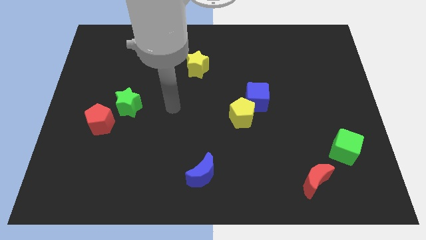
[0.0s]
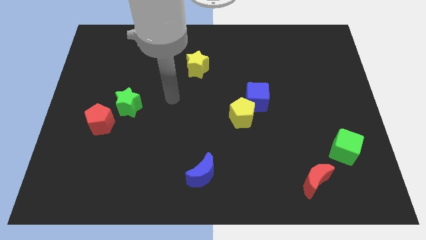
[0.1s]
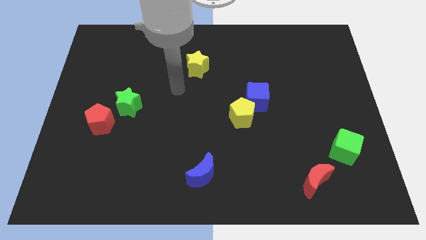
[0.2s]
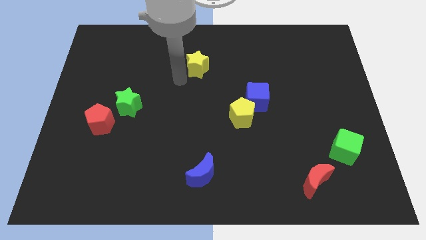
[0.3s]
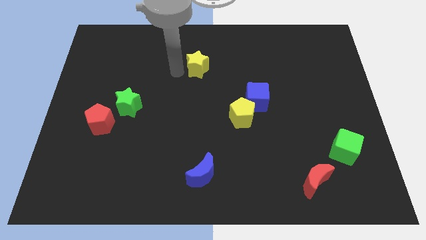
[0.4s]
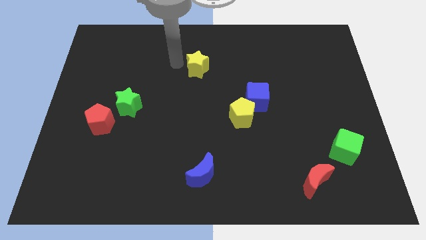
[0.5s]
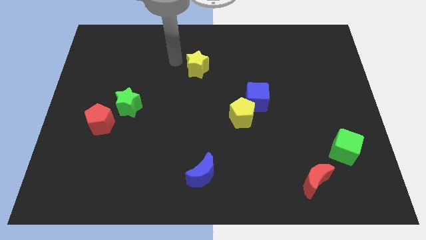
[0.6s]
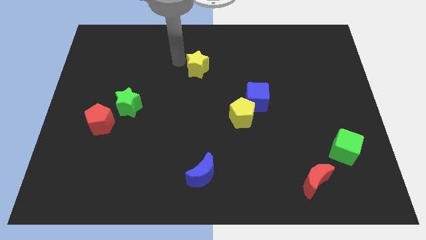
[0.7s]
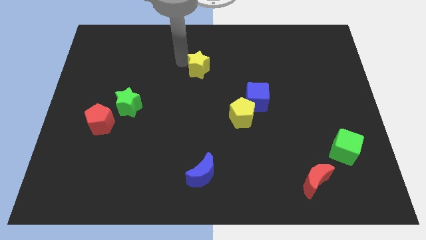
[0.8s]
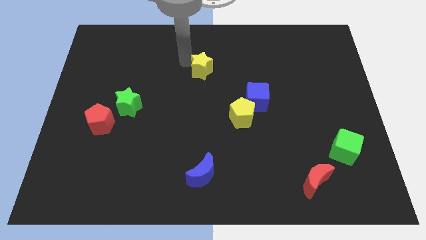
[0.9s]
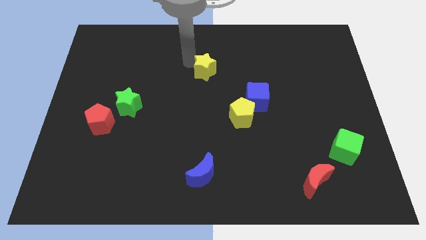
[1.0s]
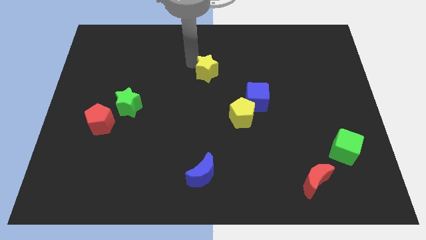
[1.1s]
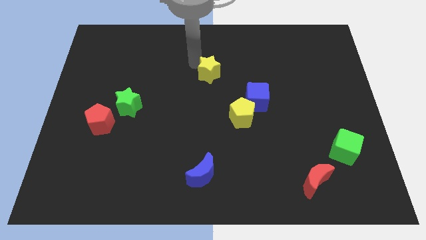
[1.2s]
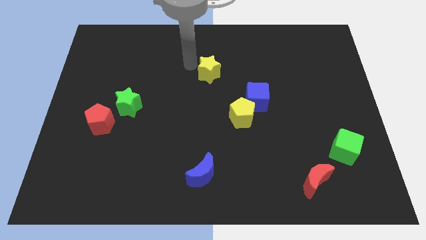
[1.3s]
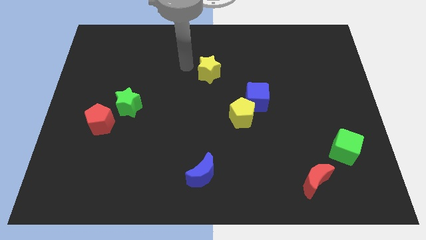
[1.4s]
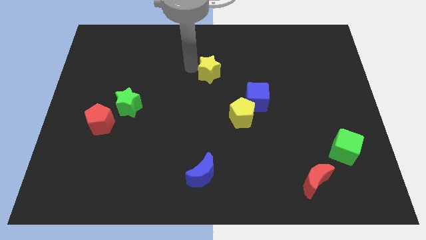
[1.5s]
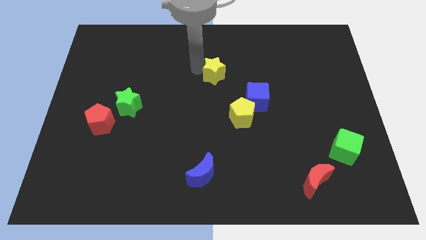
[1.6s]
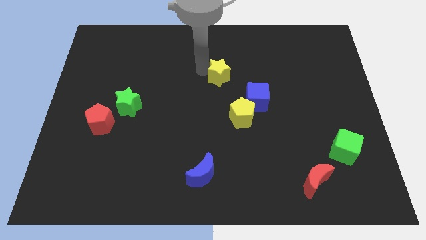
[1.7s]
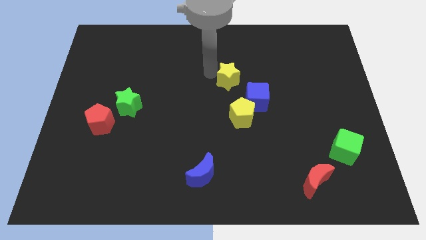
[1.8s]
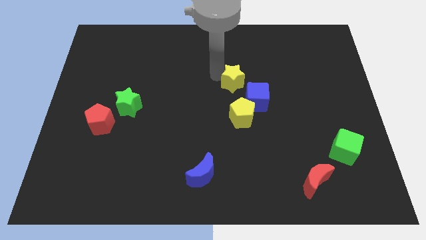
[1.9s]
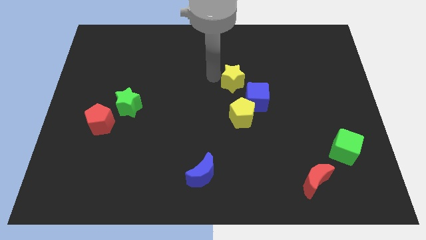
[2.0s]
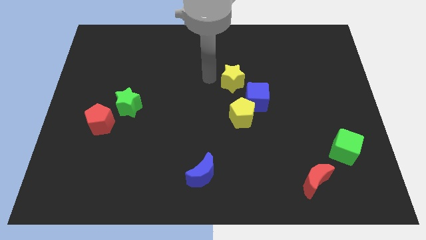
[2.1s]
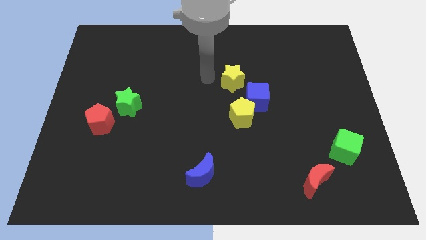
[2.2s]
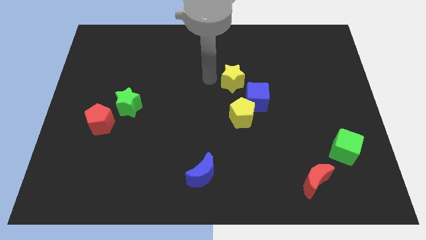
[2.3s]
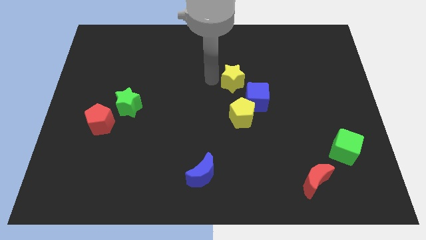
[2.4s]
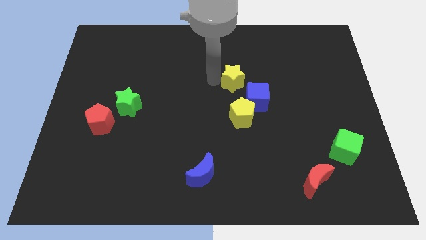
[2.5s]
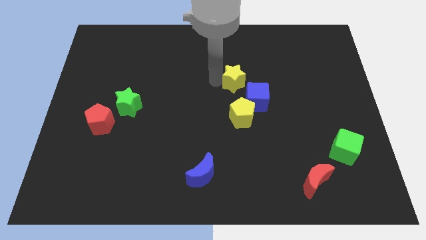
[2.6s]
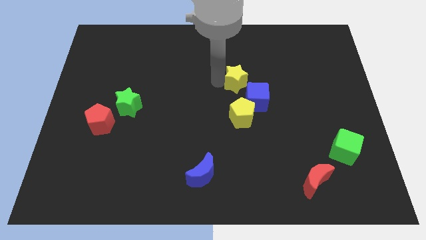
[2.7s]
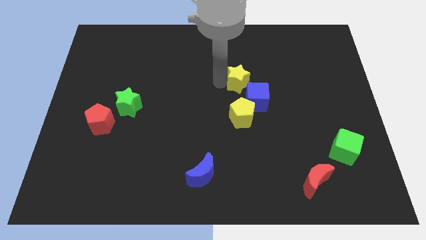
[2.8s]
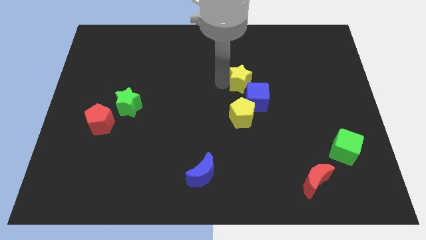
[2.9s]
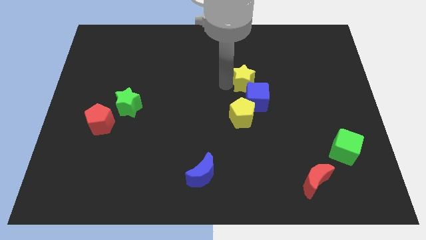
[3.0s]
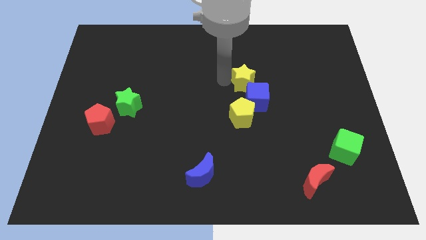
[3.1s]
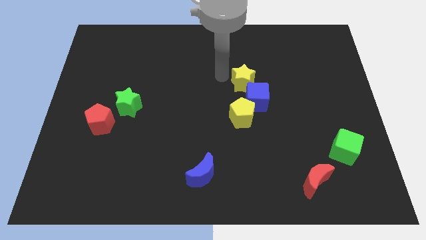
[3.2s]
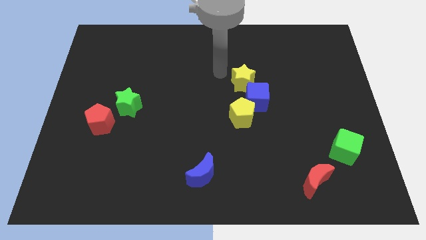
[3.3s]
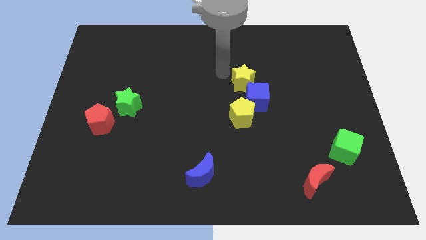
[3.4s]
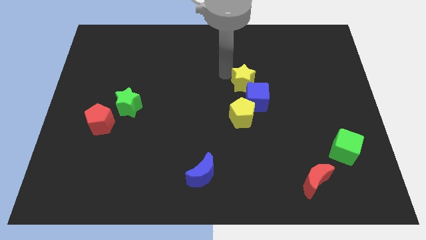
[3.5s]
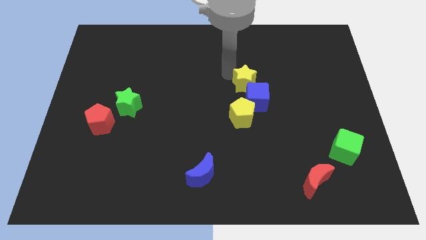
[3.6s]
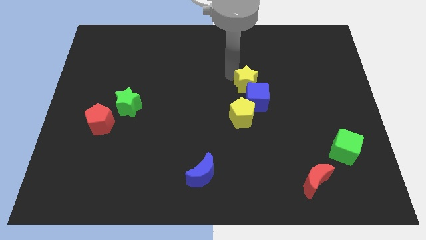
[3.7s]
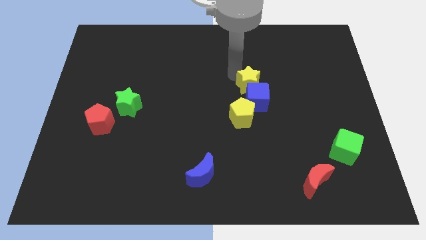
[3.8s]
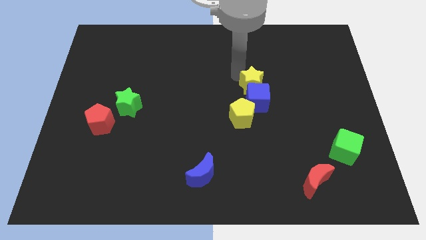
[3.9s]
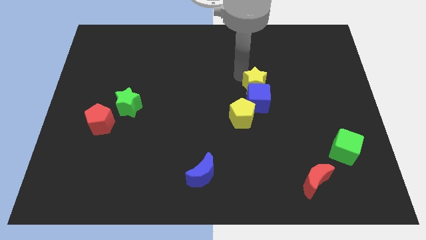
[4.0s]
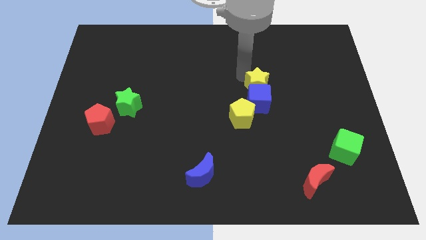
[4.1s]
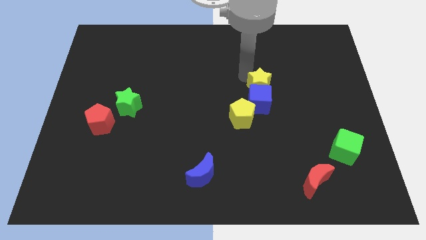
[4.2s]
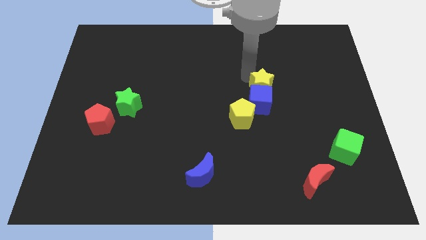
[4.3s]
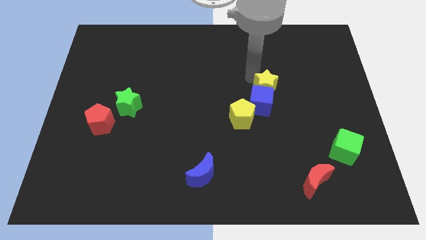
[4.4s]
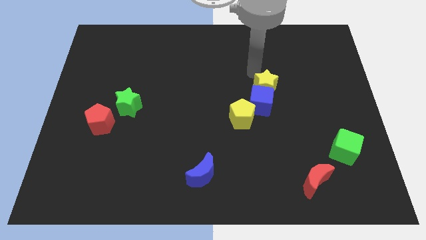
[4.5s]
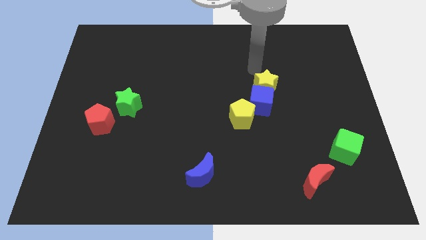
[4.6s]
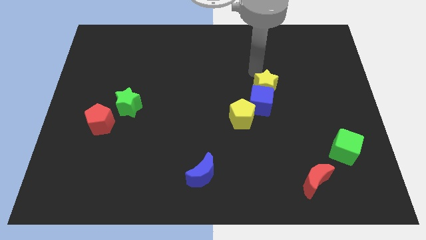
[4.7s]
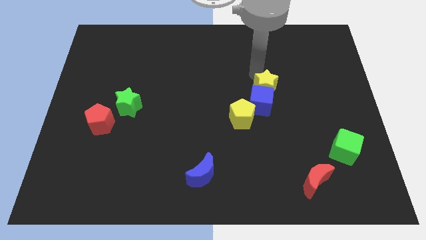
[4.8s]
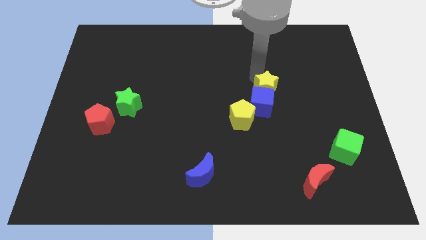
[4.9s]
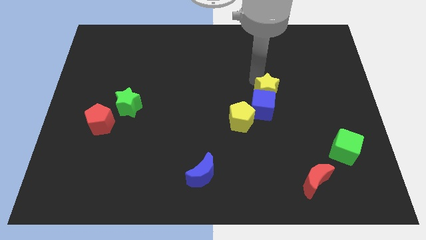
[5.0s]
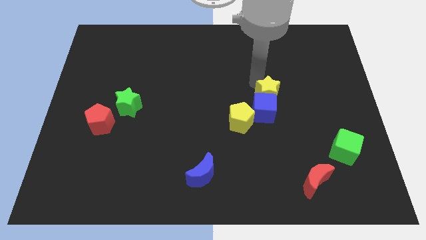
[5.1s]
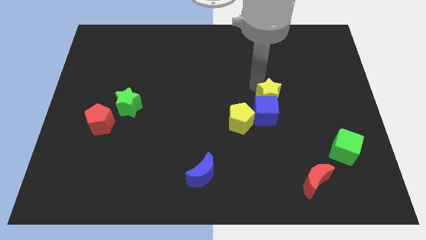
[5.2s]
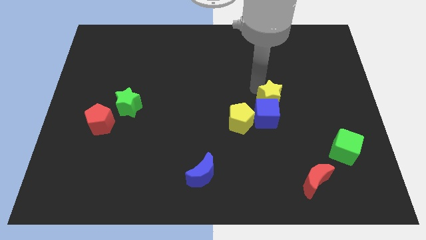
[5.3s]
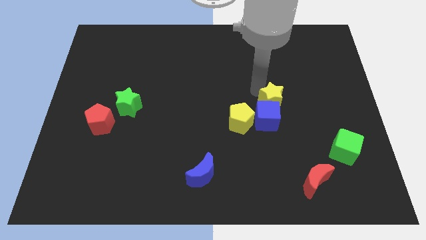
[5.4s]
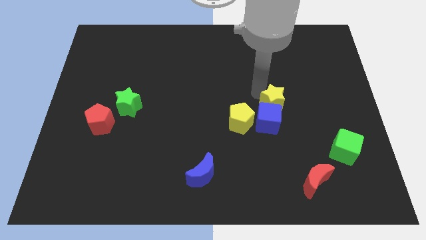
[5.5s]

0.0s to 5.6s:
slide the yellow star down and to the right diagonally

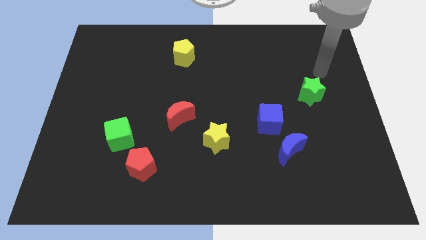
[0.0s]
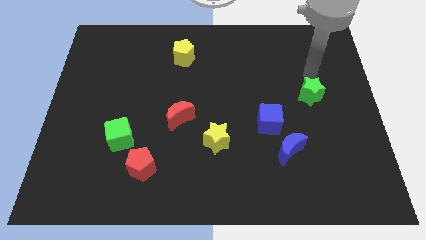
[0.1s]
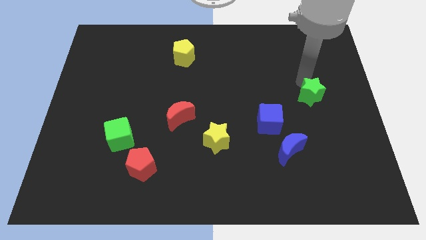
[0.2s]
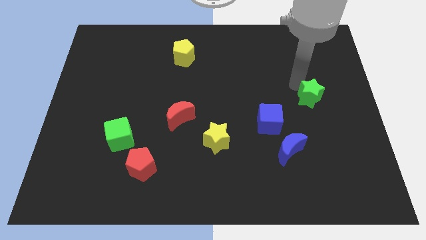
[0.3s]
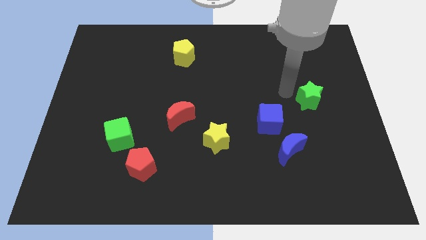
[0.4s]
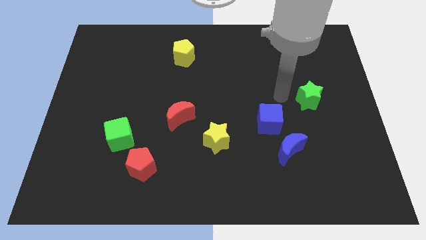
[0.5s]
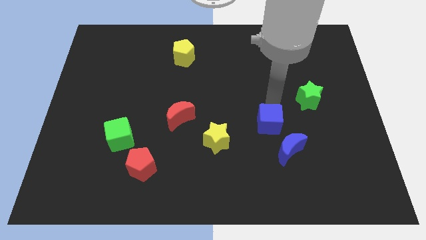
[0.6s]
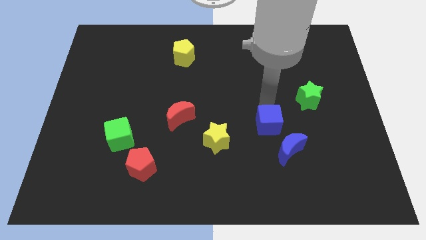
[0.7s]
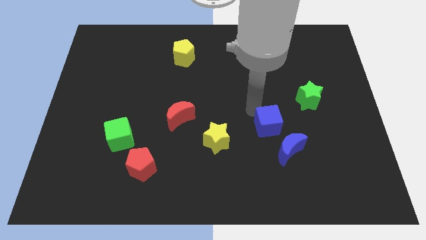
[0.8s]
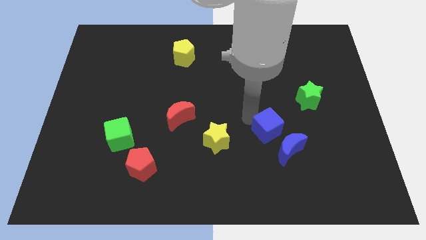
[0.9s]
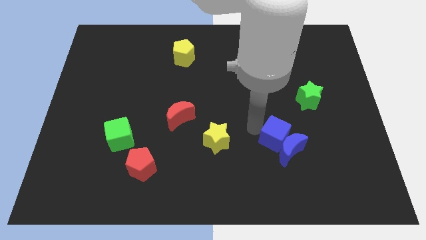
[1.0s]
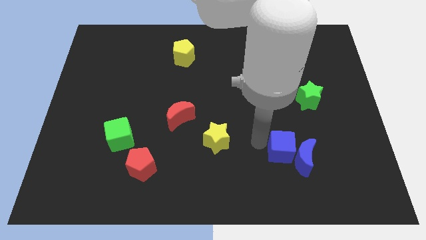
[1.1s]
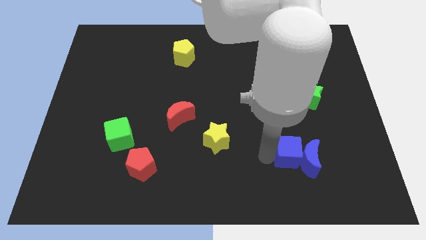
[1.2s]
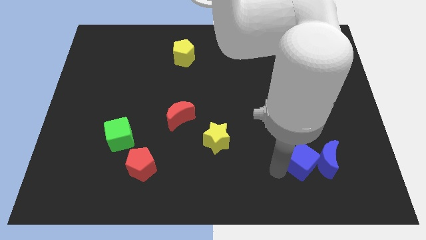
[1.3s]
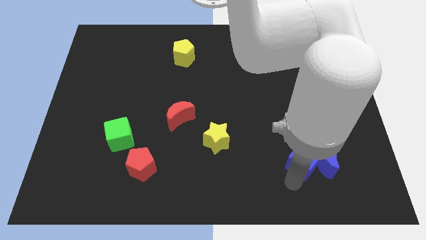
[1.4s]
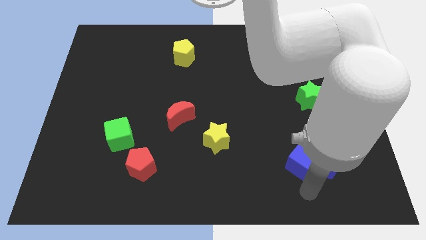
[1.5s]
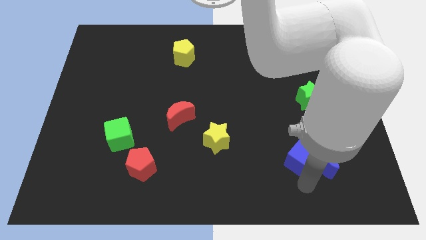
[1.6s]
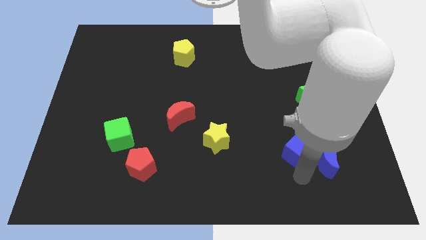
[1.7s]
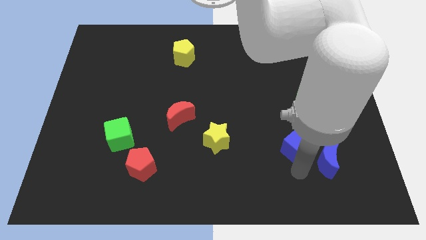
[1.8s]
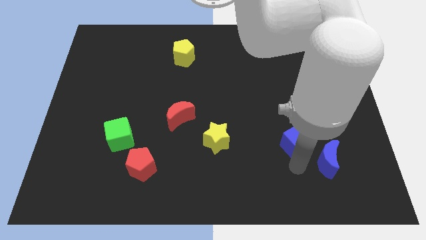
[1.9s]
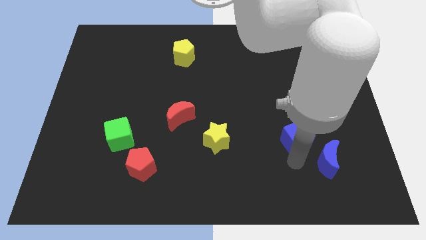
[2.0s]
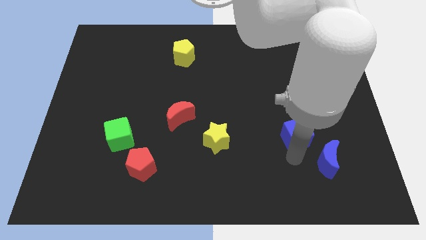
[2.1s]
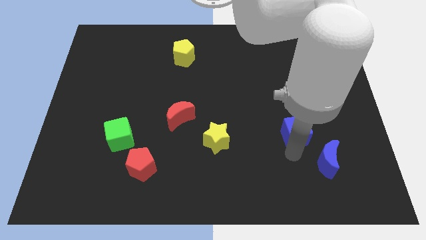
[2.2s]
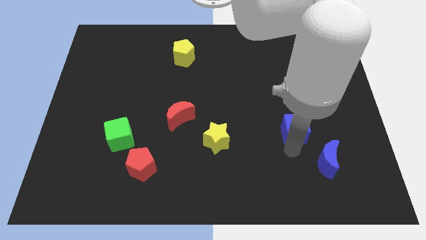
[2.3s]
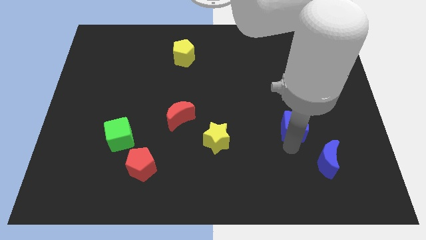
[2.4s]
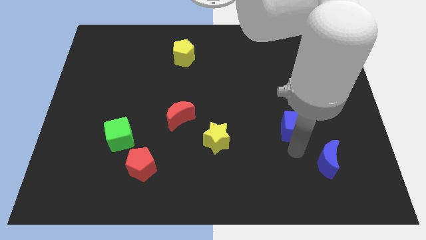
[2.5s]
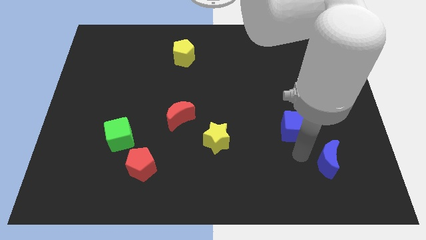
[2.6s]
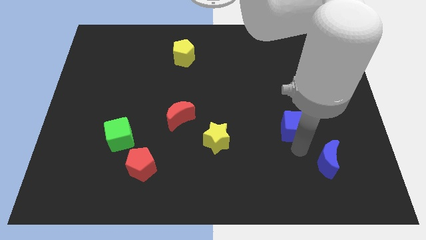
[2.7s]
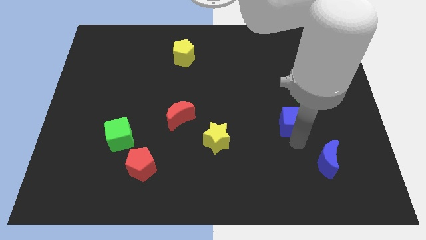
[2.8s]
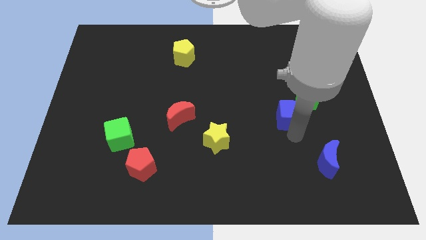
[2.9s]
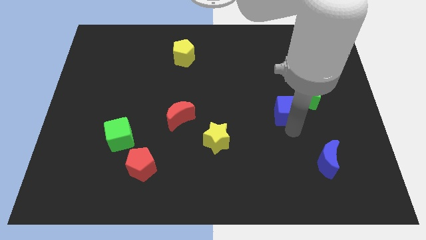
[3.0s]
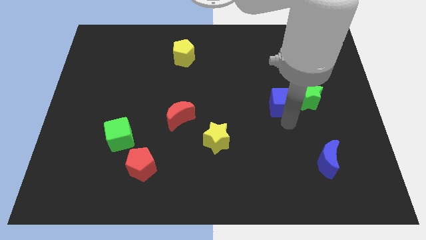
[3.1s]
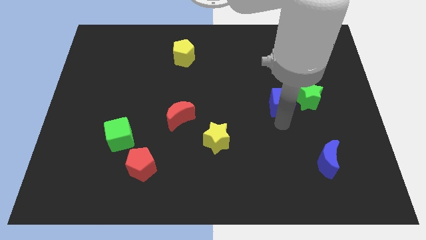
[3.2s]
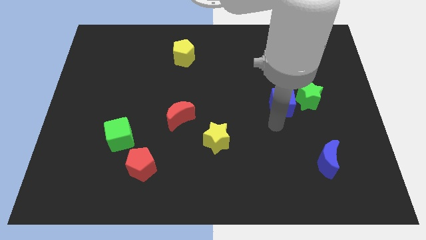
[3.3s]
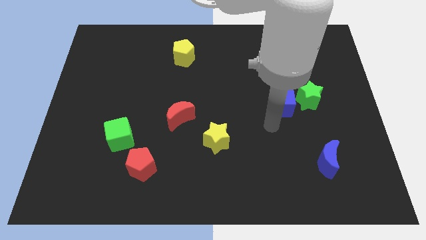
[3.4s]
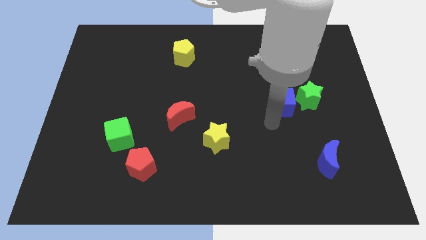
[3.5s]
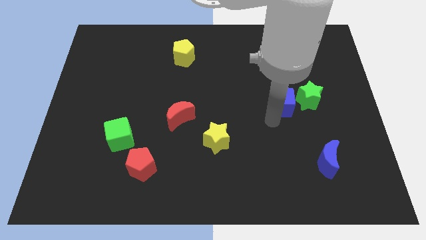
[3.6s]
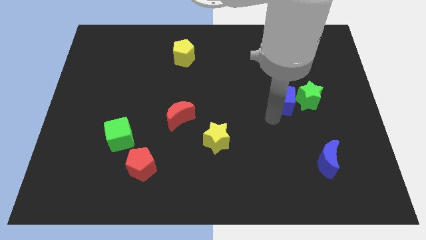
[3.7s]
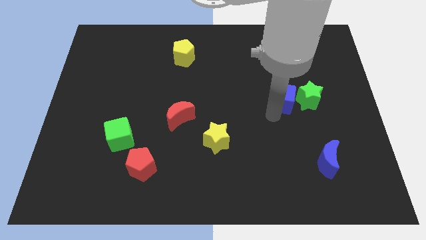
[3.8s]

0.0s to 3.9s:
move the blue cube up and to the right somewhat
